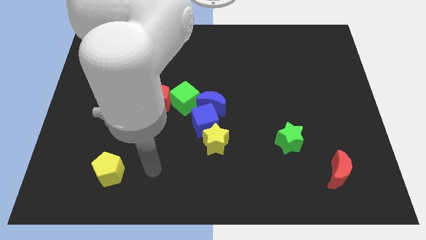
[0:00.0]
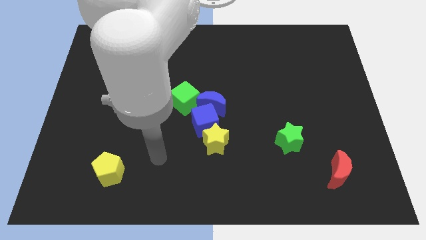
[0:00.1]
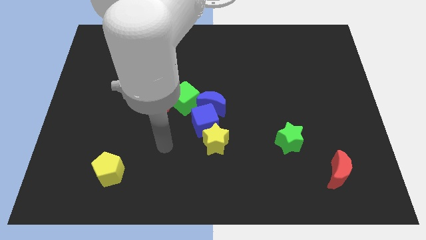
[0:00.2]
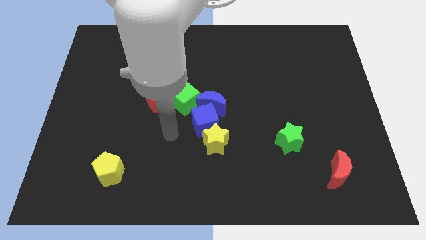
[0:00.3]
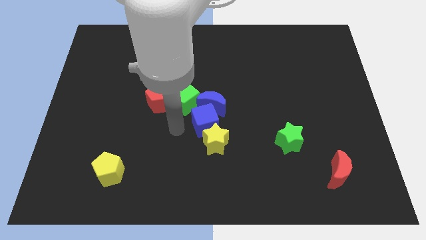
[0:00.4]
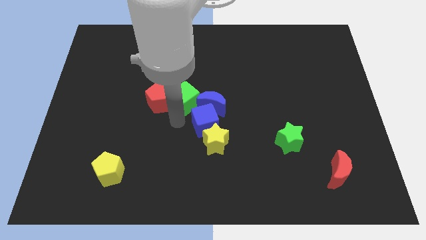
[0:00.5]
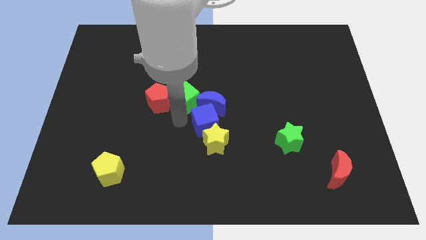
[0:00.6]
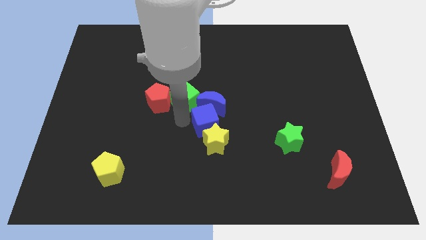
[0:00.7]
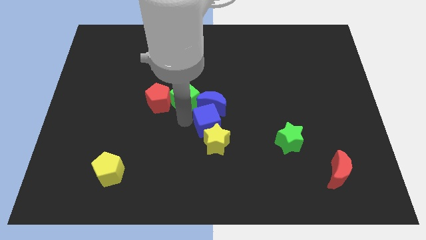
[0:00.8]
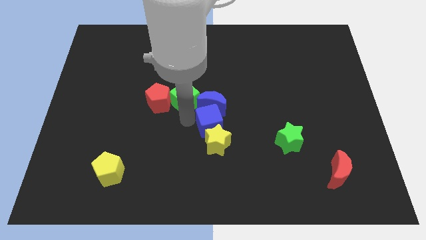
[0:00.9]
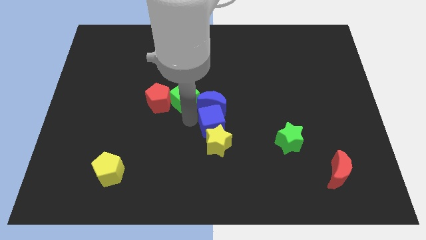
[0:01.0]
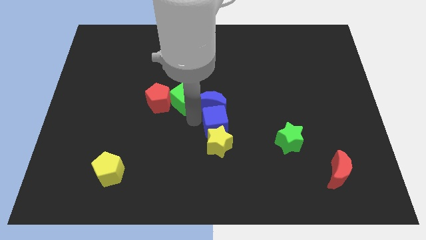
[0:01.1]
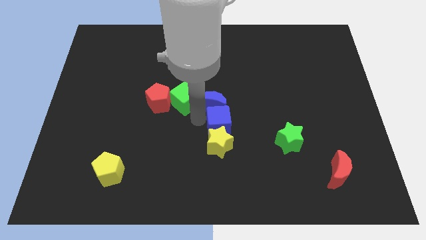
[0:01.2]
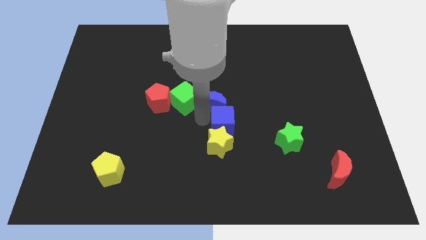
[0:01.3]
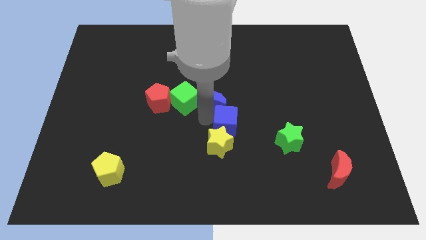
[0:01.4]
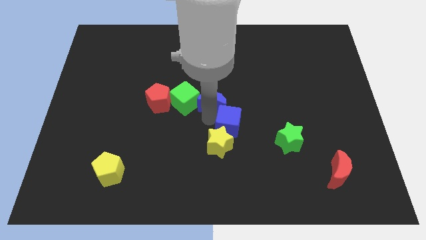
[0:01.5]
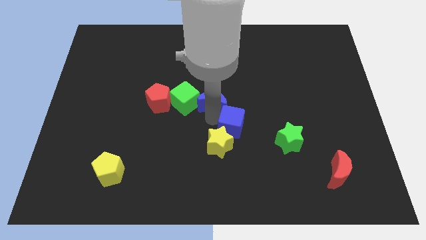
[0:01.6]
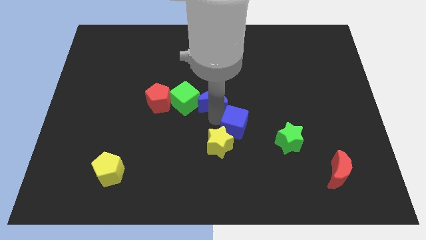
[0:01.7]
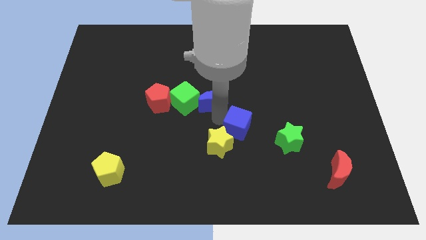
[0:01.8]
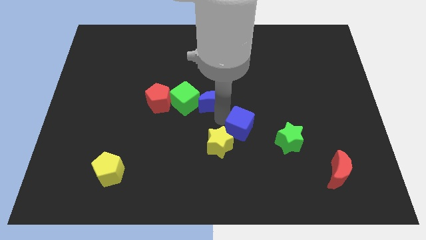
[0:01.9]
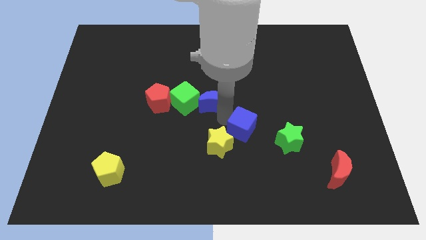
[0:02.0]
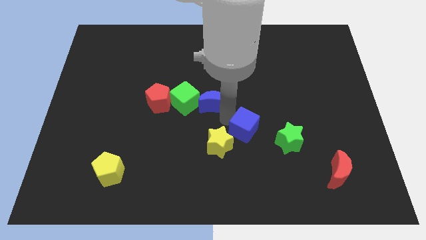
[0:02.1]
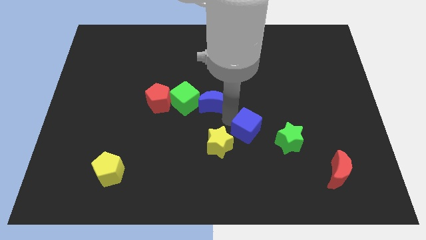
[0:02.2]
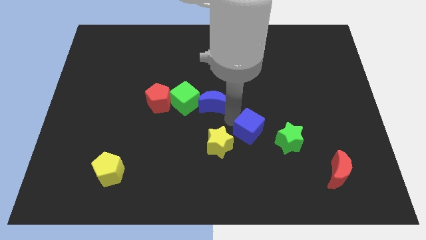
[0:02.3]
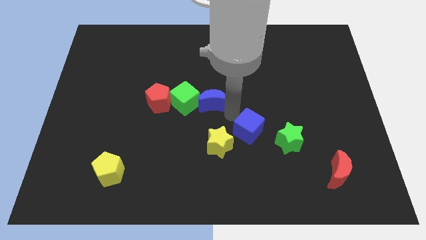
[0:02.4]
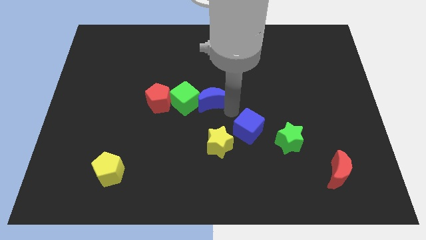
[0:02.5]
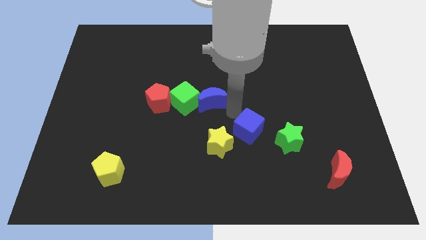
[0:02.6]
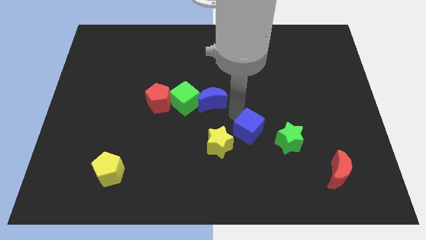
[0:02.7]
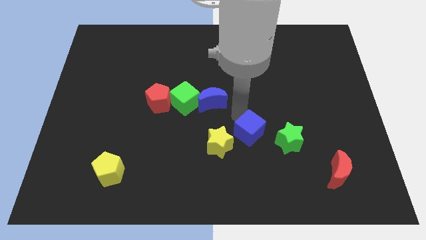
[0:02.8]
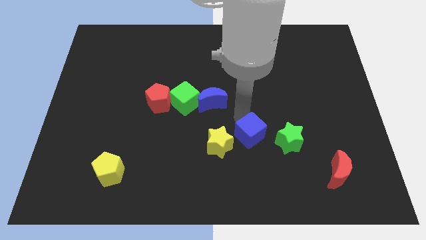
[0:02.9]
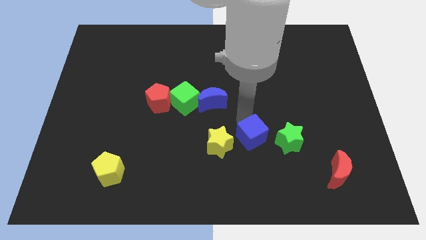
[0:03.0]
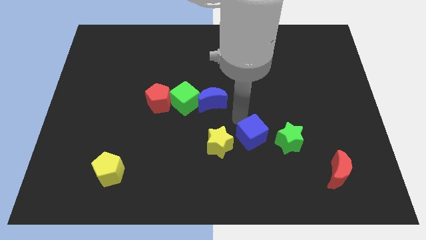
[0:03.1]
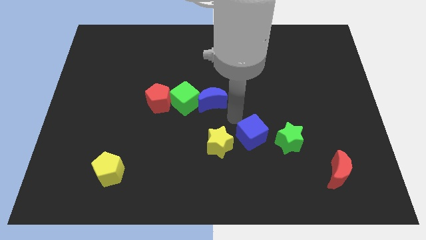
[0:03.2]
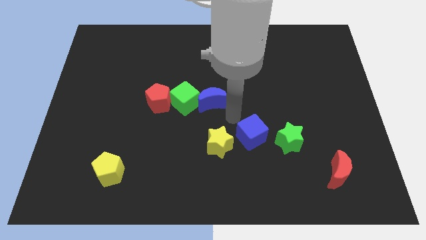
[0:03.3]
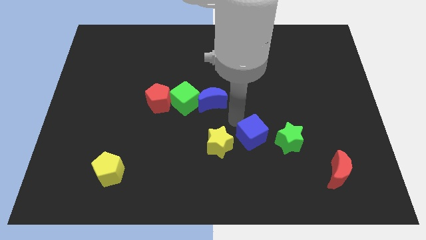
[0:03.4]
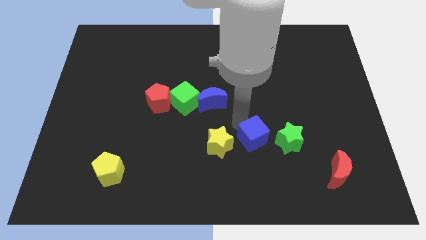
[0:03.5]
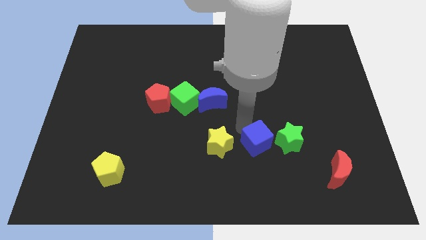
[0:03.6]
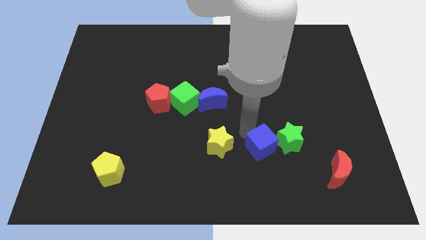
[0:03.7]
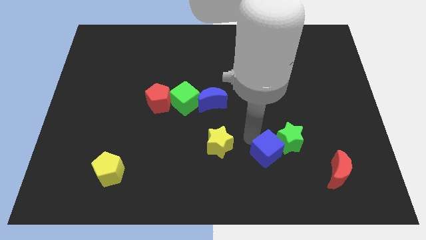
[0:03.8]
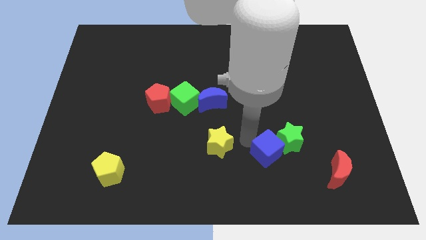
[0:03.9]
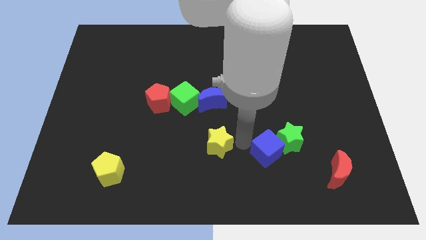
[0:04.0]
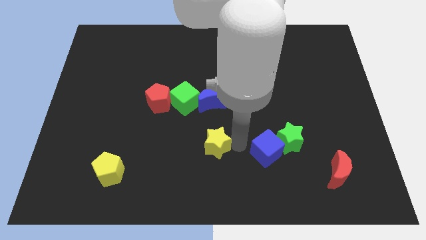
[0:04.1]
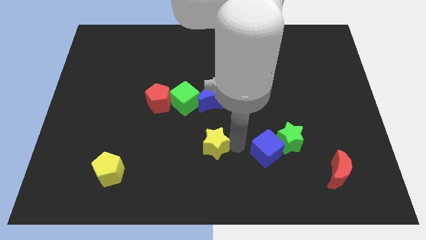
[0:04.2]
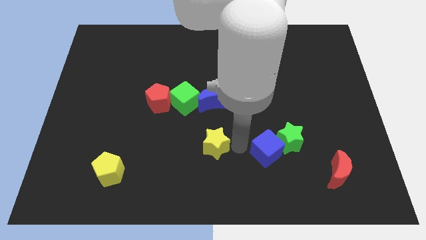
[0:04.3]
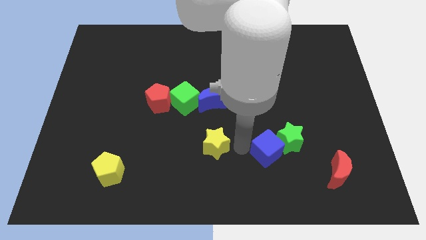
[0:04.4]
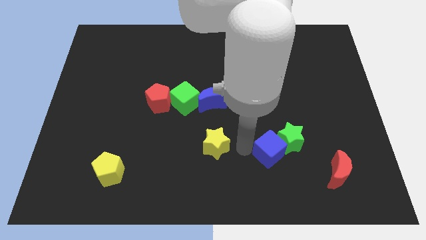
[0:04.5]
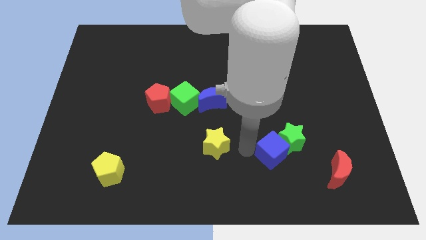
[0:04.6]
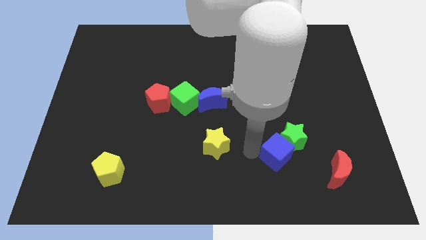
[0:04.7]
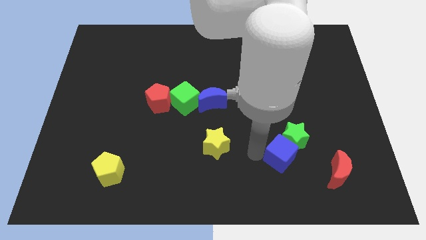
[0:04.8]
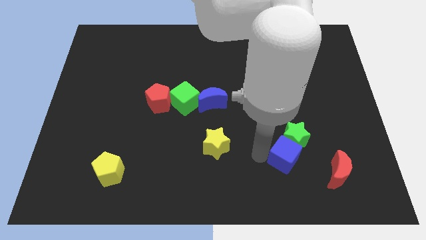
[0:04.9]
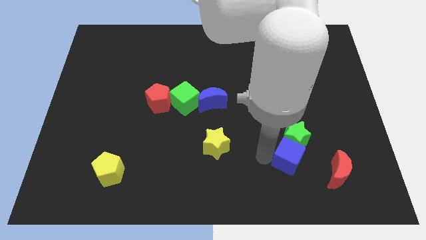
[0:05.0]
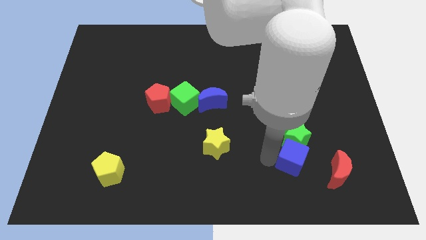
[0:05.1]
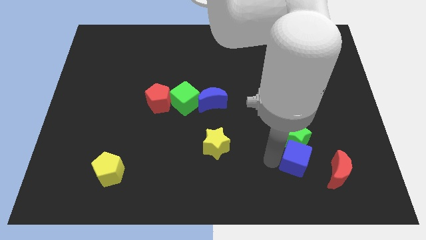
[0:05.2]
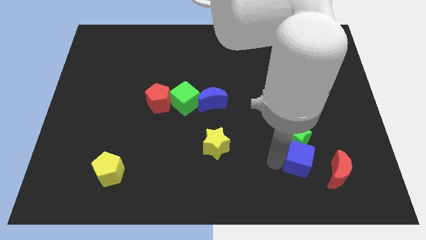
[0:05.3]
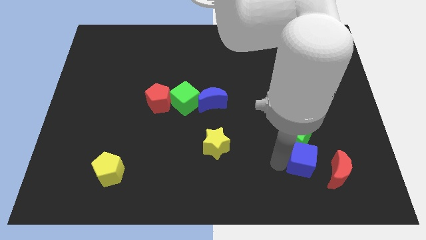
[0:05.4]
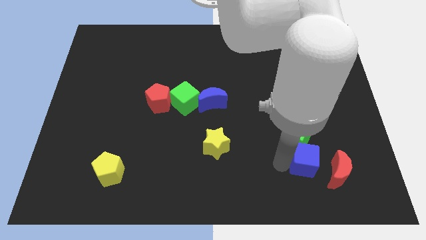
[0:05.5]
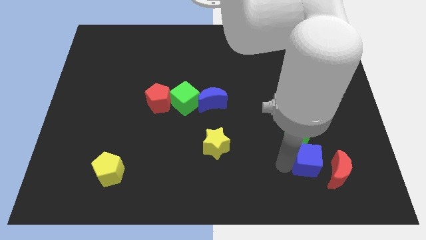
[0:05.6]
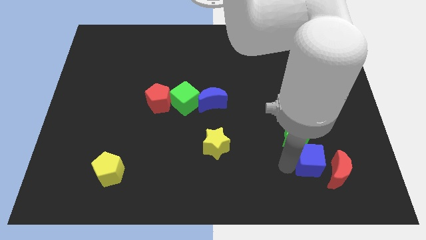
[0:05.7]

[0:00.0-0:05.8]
slide the blue cube towards the red moon

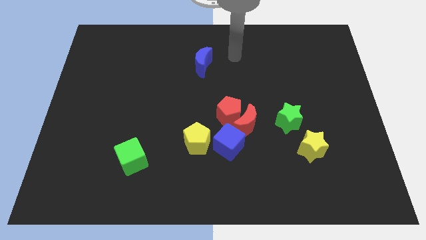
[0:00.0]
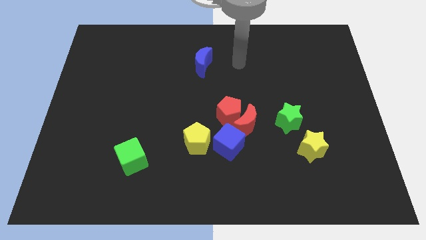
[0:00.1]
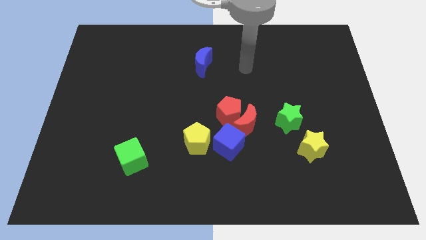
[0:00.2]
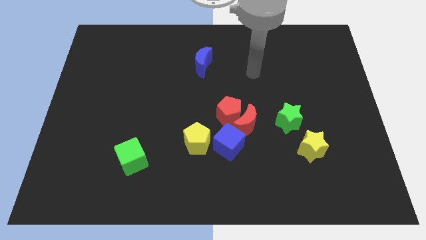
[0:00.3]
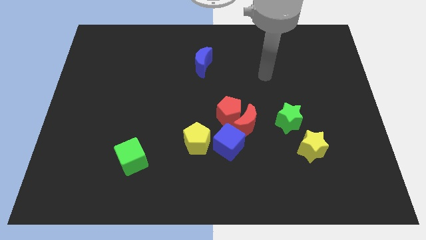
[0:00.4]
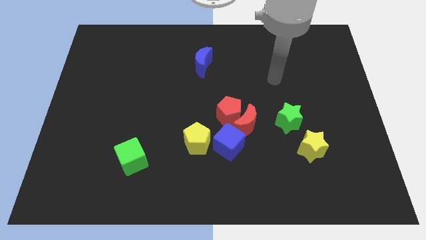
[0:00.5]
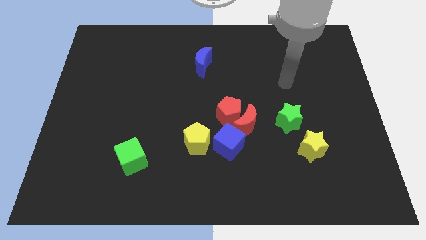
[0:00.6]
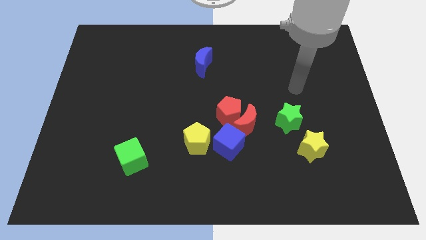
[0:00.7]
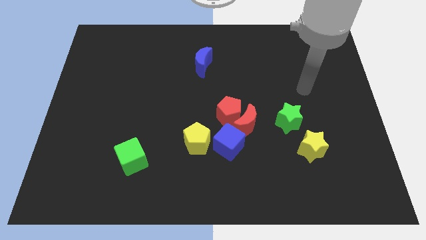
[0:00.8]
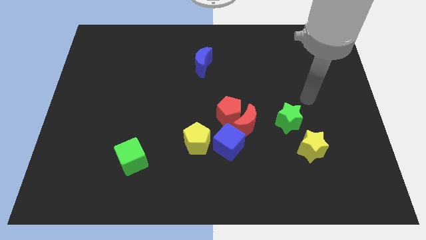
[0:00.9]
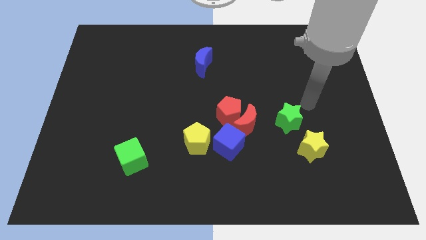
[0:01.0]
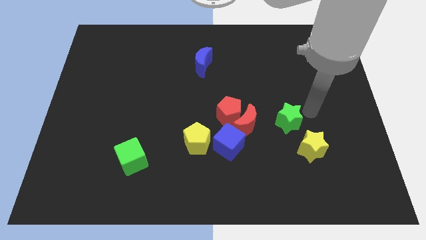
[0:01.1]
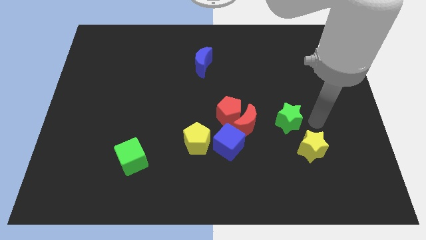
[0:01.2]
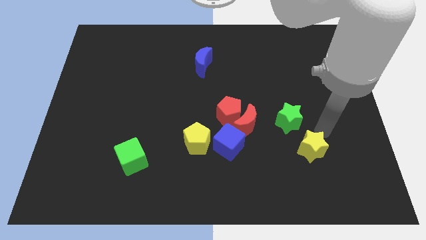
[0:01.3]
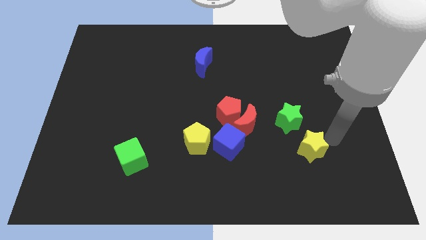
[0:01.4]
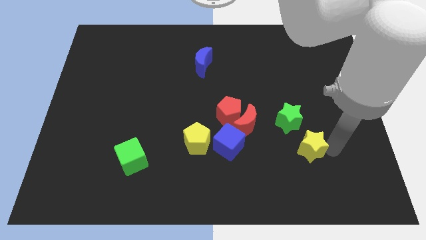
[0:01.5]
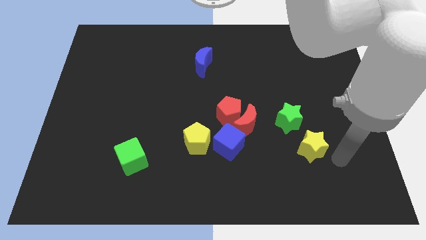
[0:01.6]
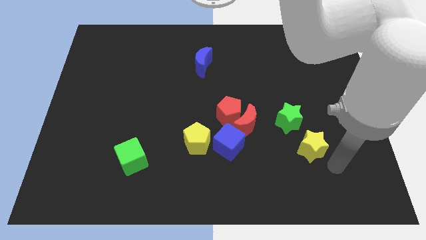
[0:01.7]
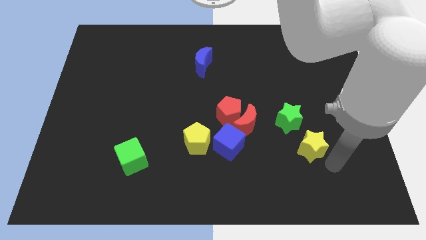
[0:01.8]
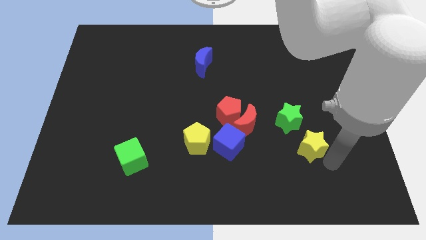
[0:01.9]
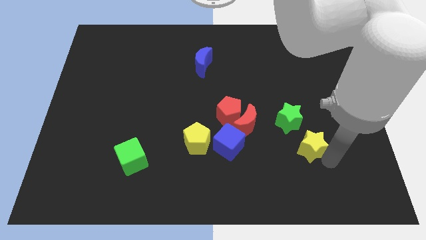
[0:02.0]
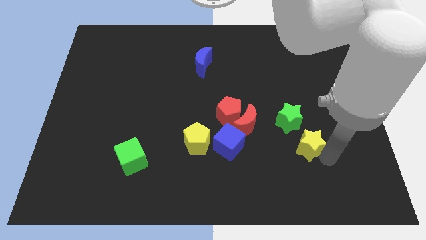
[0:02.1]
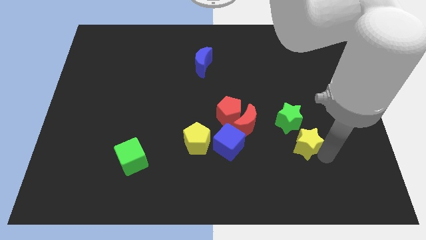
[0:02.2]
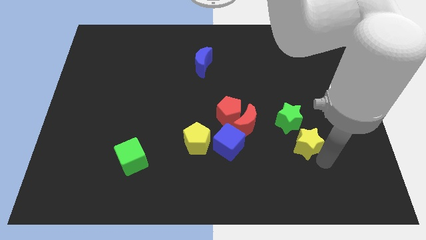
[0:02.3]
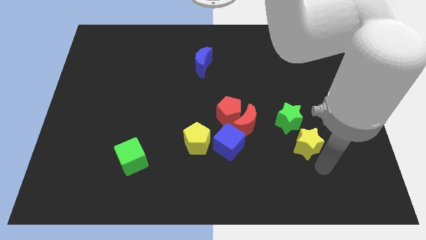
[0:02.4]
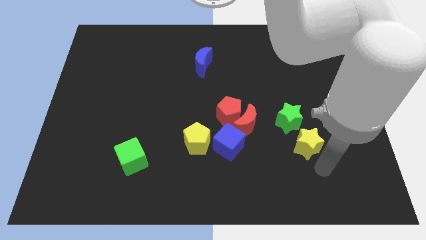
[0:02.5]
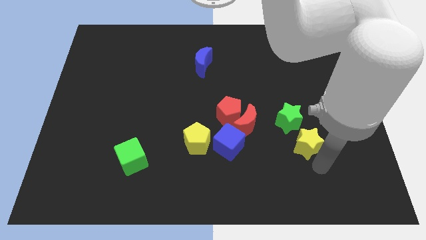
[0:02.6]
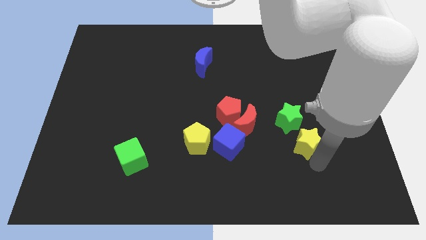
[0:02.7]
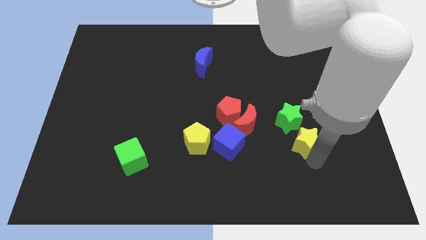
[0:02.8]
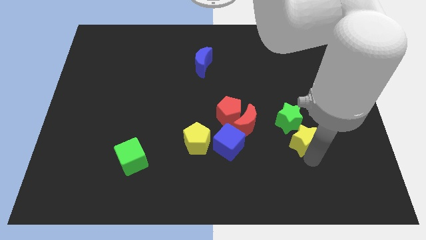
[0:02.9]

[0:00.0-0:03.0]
push the yellow star to the green star
